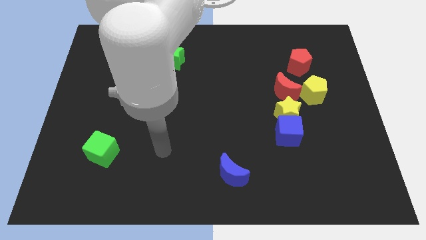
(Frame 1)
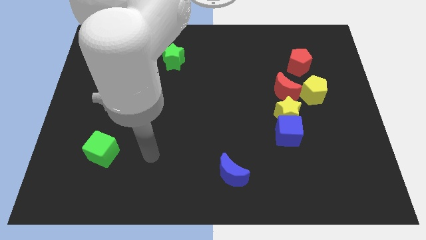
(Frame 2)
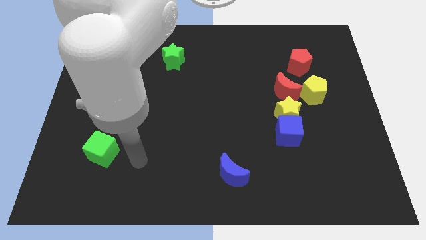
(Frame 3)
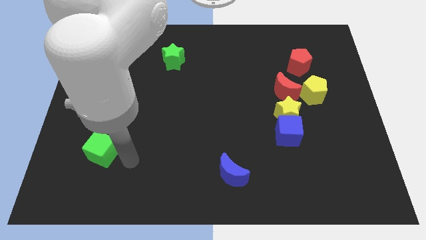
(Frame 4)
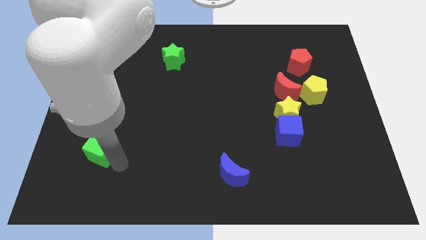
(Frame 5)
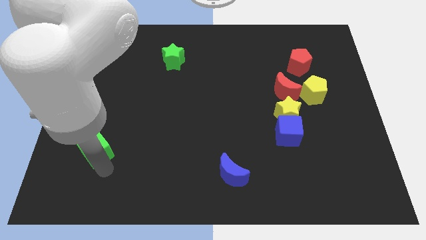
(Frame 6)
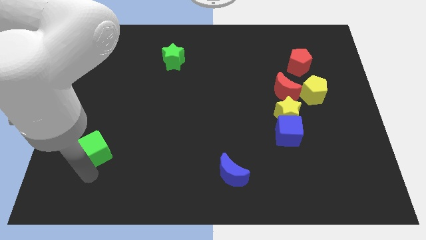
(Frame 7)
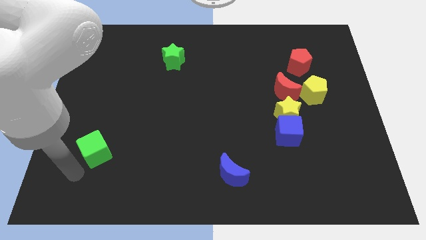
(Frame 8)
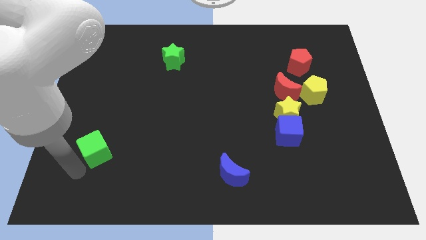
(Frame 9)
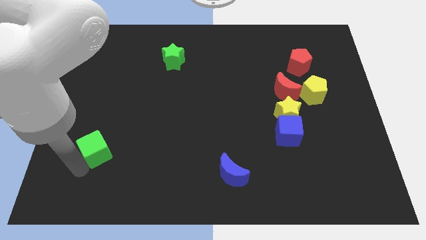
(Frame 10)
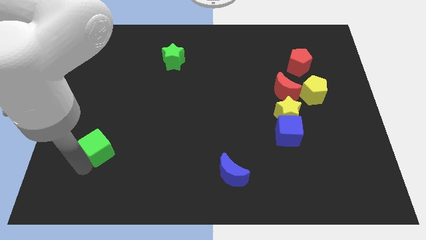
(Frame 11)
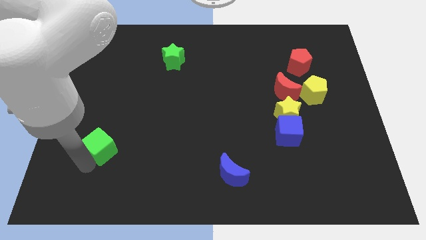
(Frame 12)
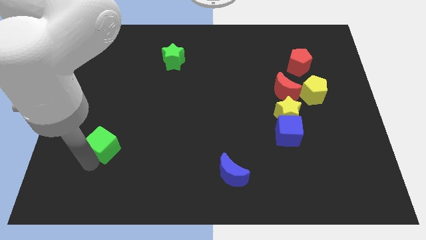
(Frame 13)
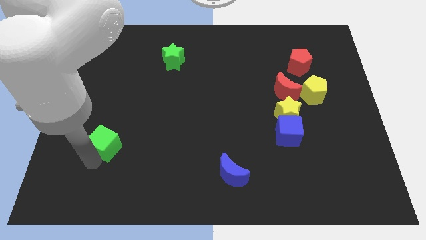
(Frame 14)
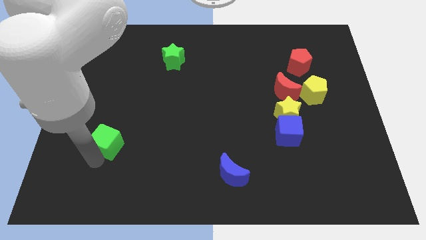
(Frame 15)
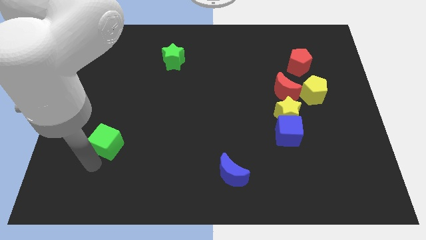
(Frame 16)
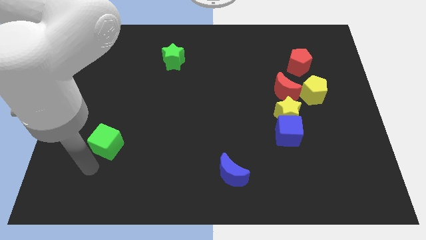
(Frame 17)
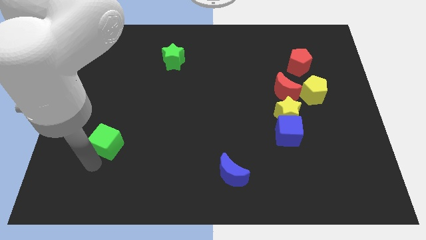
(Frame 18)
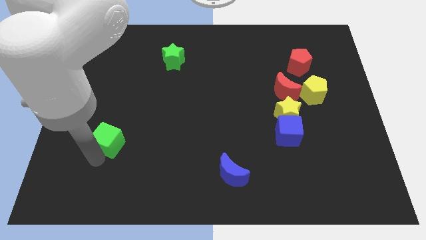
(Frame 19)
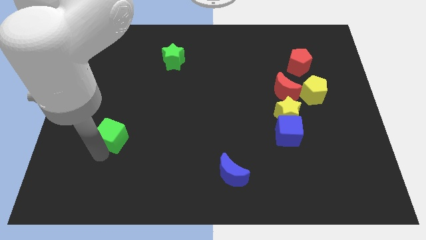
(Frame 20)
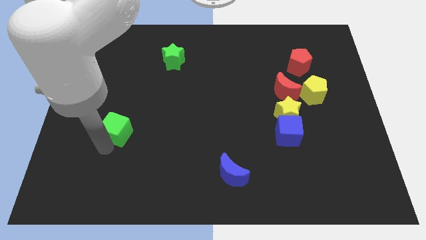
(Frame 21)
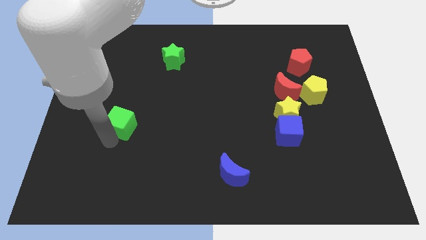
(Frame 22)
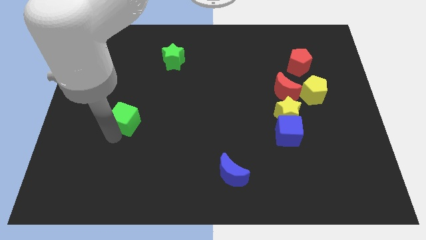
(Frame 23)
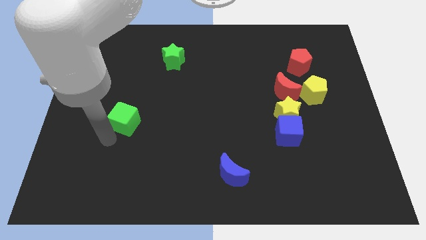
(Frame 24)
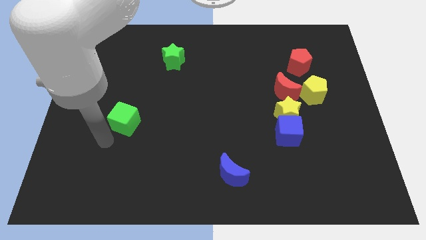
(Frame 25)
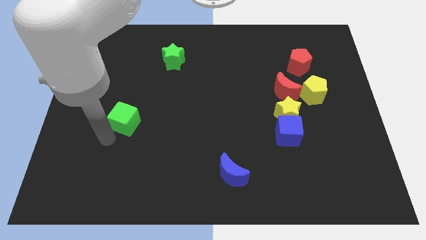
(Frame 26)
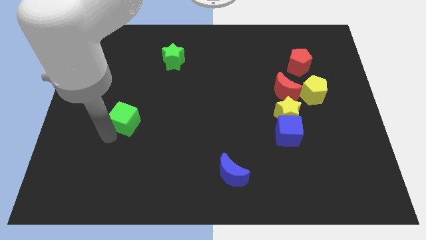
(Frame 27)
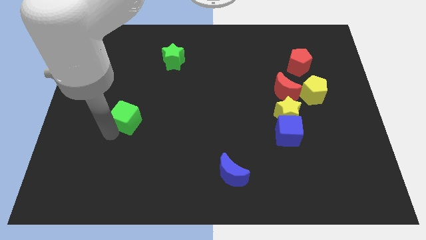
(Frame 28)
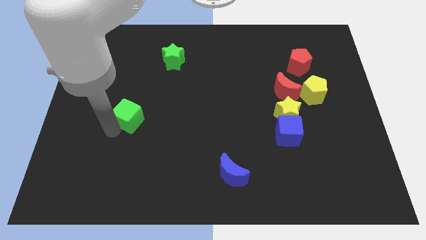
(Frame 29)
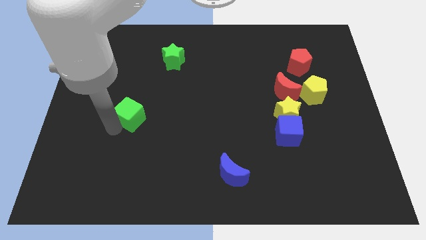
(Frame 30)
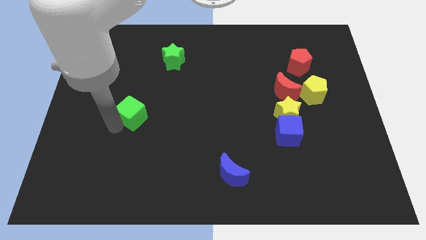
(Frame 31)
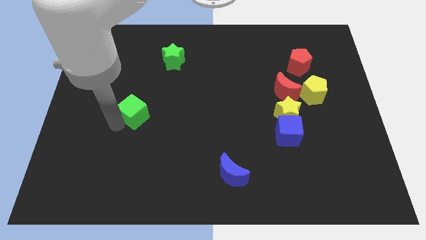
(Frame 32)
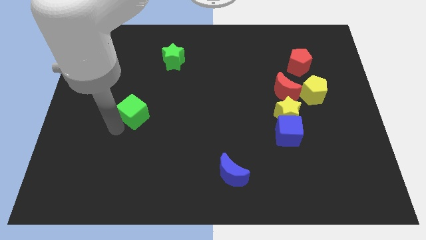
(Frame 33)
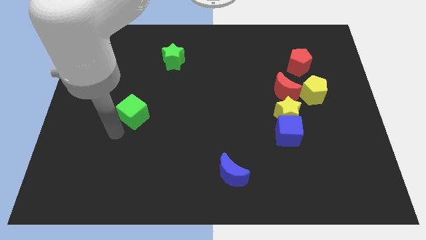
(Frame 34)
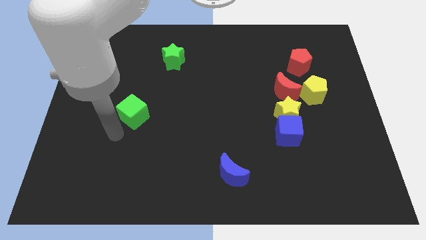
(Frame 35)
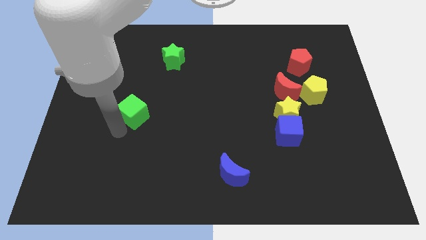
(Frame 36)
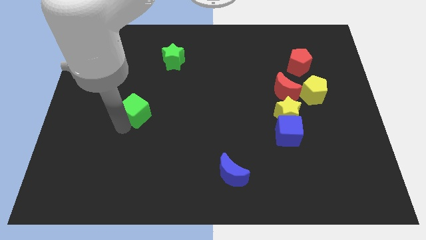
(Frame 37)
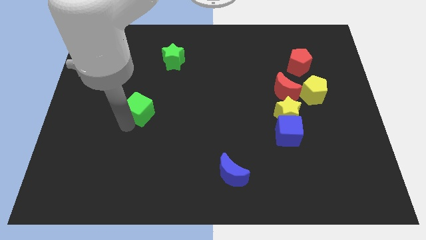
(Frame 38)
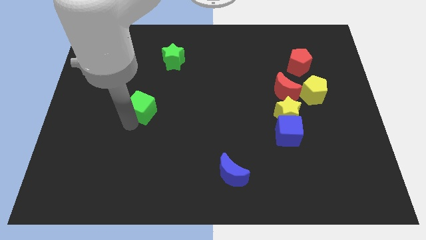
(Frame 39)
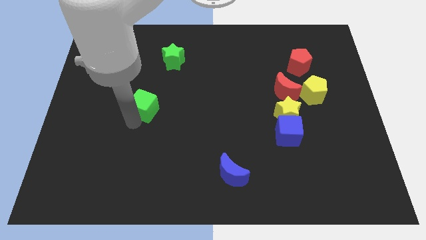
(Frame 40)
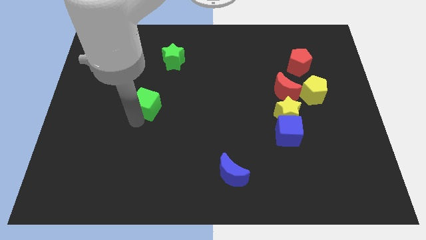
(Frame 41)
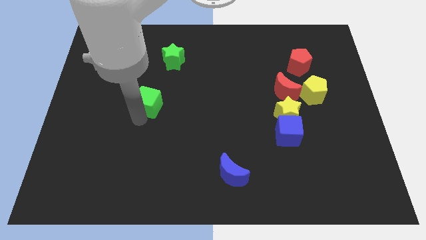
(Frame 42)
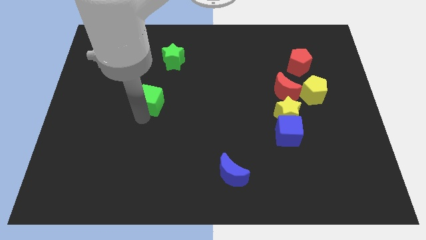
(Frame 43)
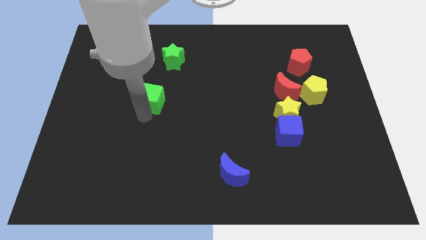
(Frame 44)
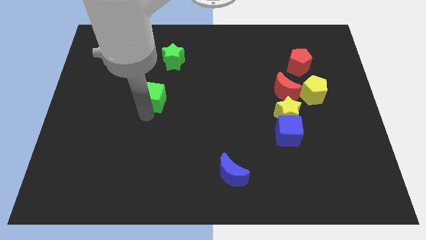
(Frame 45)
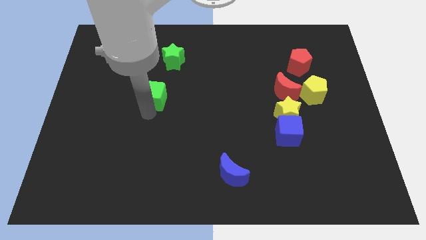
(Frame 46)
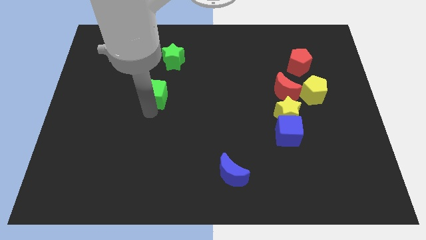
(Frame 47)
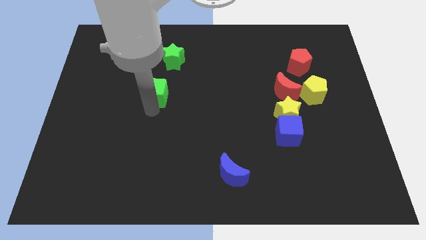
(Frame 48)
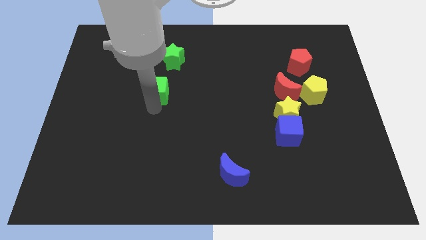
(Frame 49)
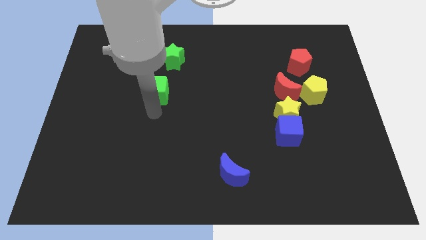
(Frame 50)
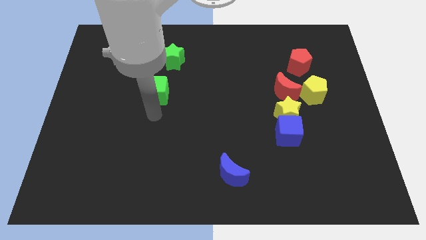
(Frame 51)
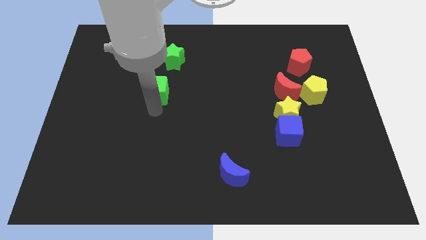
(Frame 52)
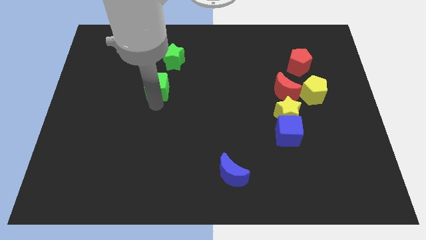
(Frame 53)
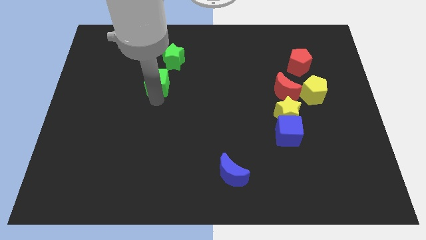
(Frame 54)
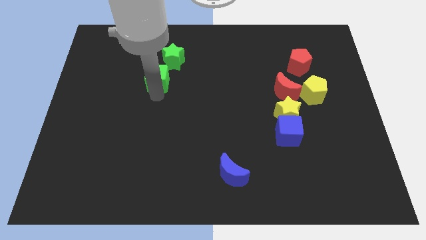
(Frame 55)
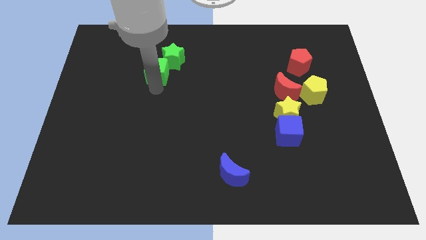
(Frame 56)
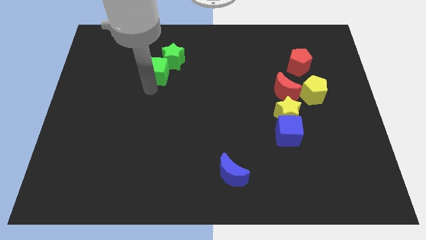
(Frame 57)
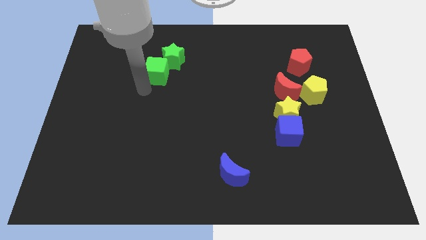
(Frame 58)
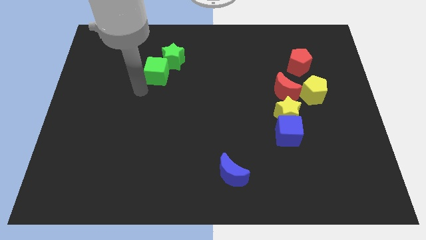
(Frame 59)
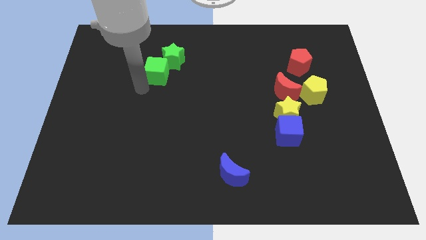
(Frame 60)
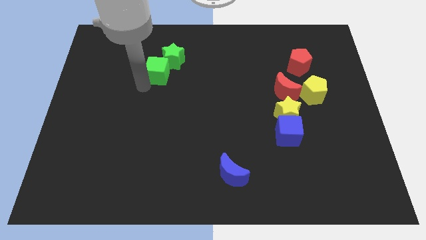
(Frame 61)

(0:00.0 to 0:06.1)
put the green cube close to the green star

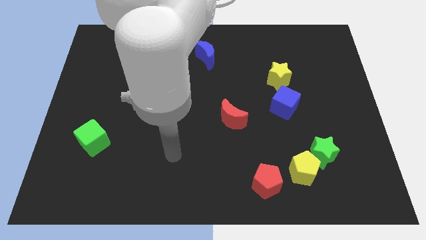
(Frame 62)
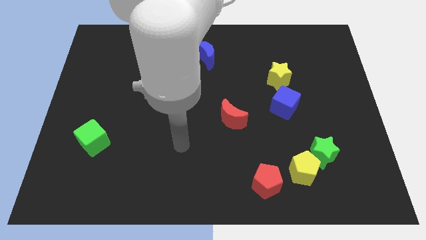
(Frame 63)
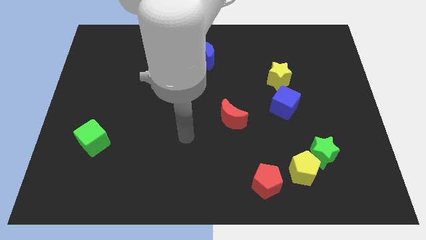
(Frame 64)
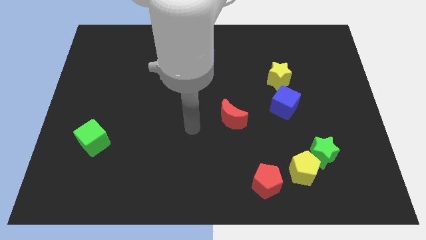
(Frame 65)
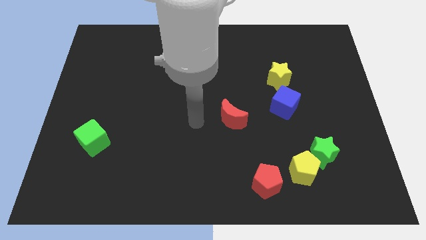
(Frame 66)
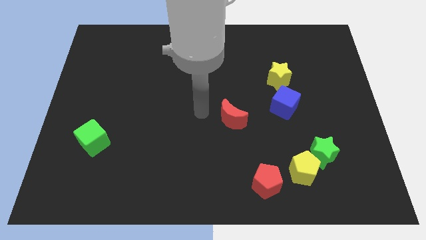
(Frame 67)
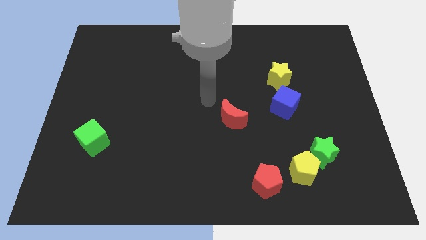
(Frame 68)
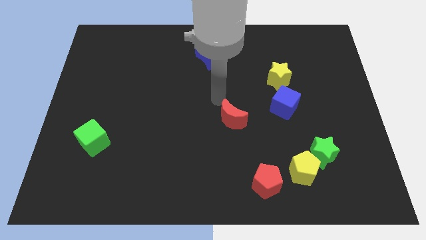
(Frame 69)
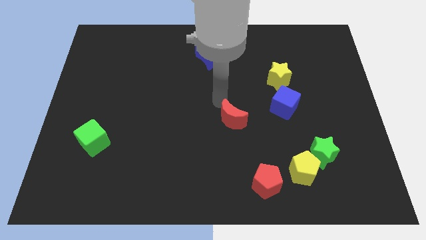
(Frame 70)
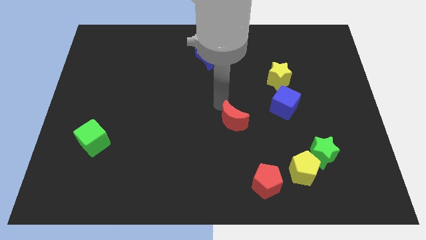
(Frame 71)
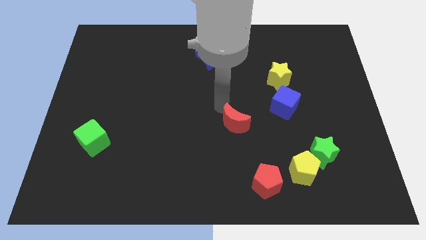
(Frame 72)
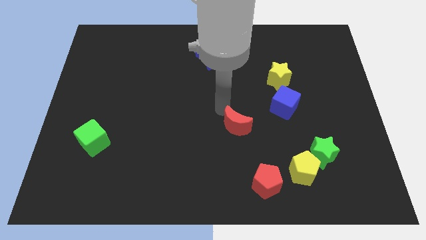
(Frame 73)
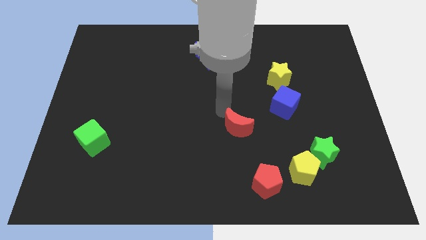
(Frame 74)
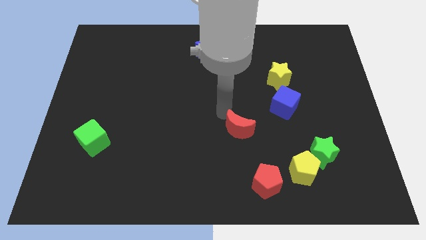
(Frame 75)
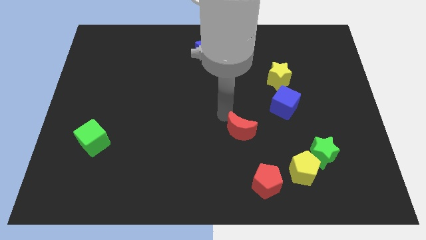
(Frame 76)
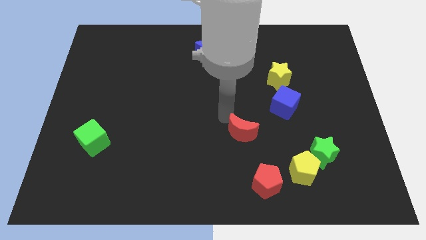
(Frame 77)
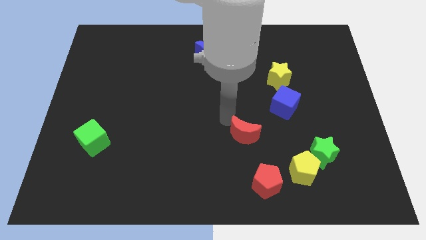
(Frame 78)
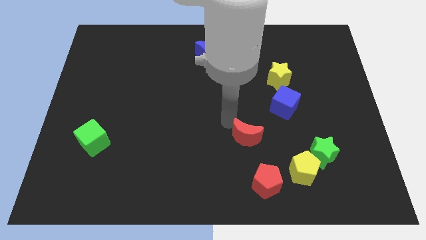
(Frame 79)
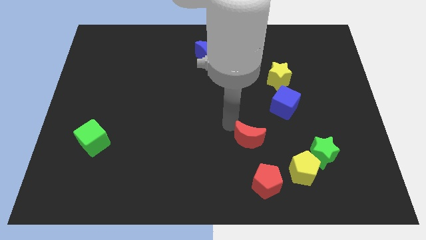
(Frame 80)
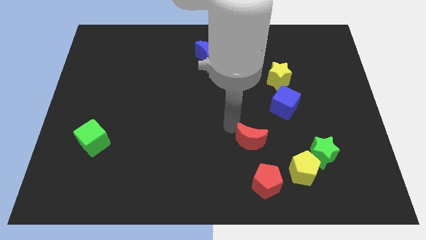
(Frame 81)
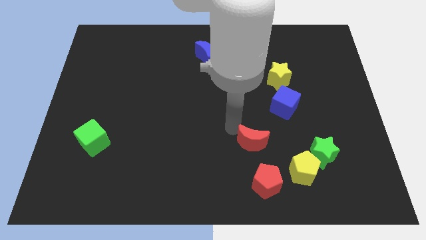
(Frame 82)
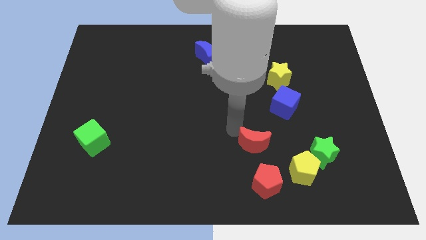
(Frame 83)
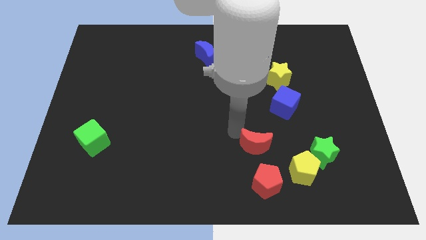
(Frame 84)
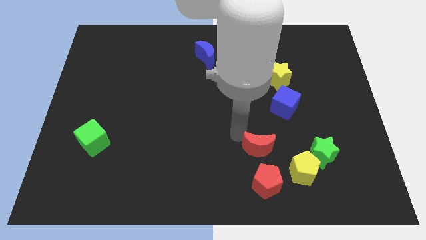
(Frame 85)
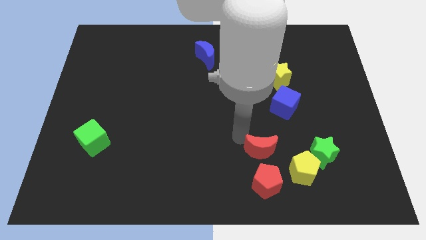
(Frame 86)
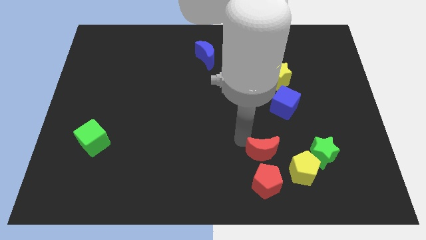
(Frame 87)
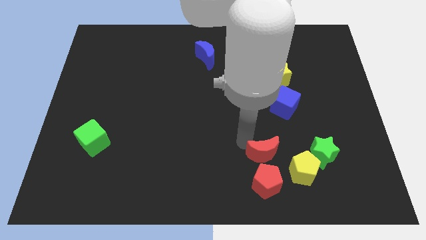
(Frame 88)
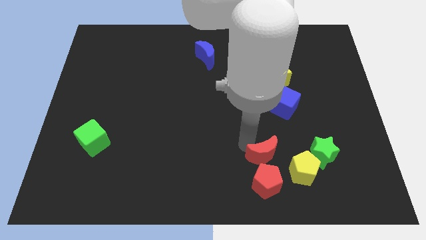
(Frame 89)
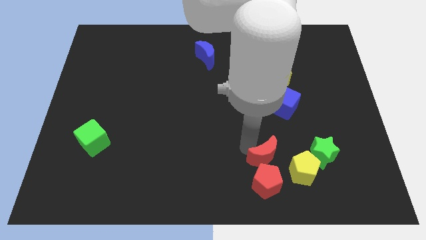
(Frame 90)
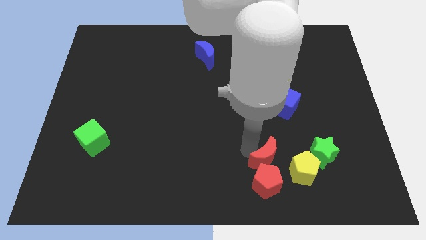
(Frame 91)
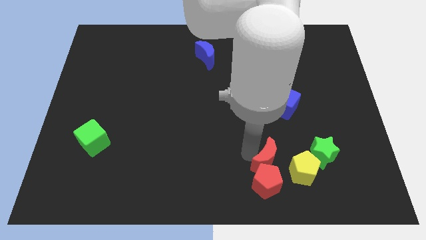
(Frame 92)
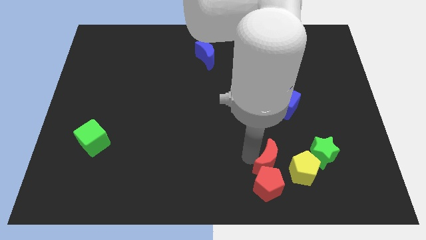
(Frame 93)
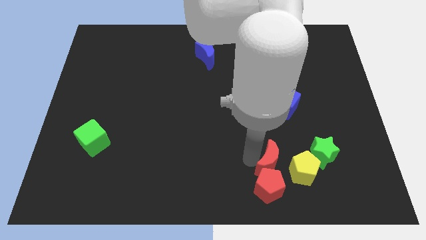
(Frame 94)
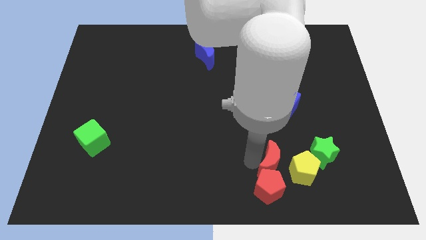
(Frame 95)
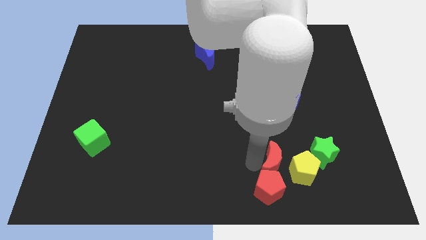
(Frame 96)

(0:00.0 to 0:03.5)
move the red moon close to the yellow pentagon
